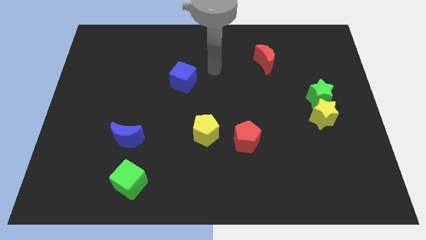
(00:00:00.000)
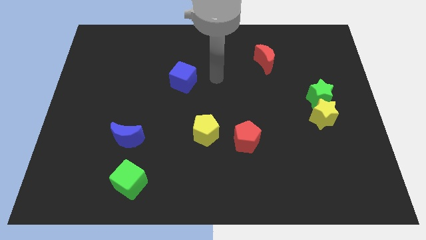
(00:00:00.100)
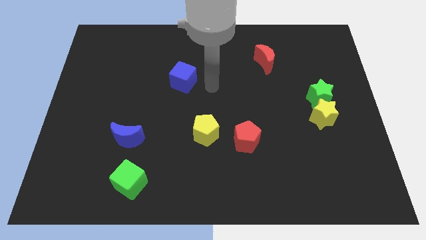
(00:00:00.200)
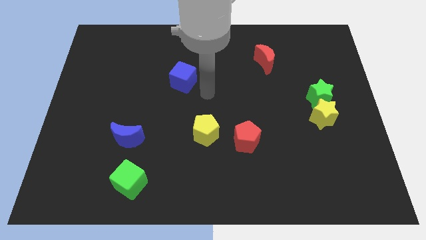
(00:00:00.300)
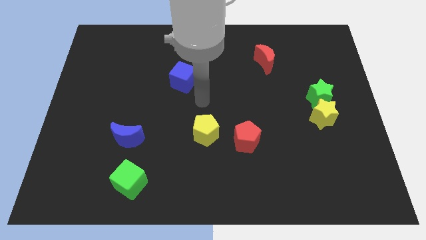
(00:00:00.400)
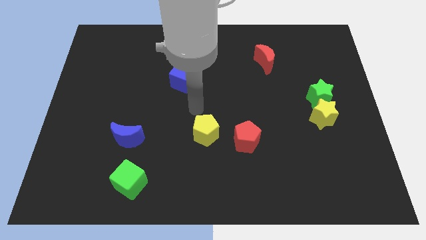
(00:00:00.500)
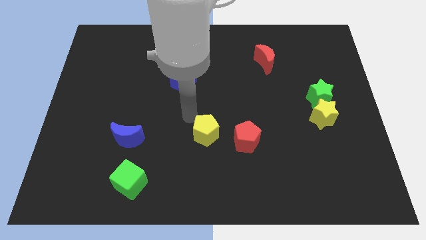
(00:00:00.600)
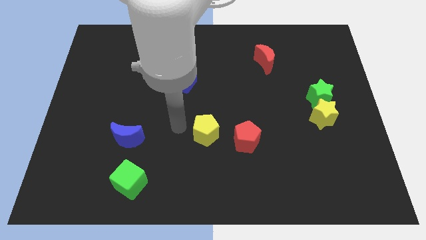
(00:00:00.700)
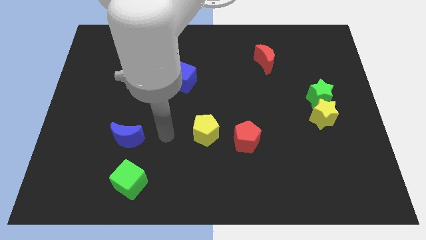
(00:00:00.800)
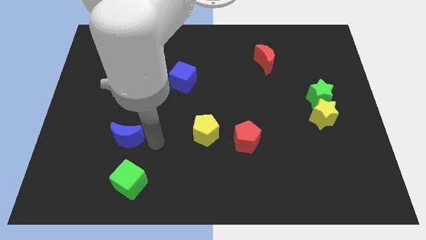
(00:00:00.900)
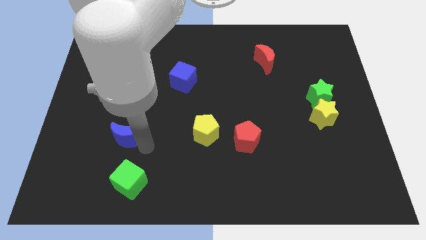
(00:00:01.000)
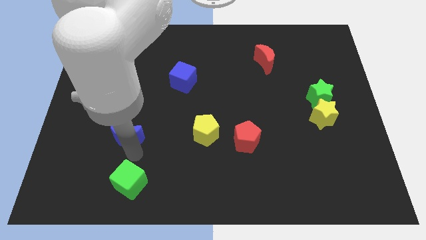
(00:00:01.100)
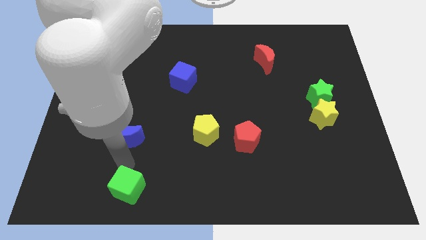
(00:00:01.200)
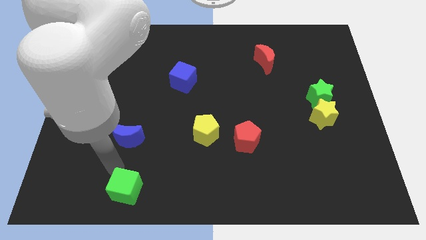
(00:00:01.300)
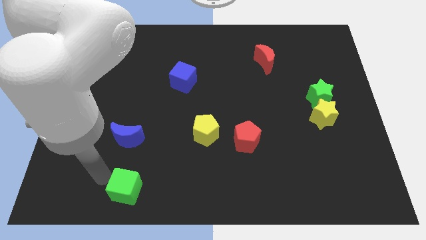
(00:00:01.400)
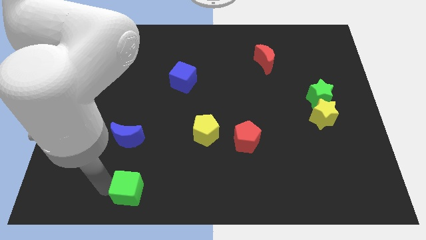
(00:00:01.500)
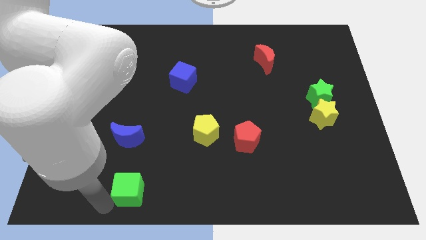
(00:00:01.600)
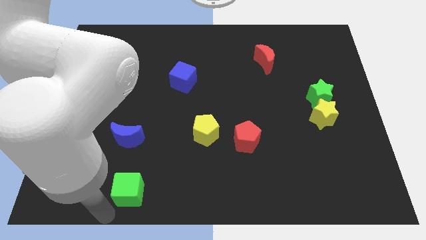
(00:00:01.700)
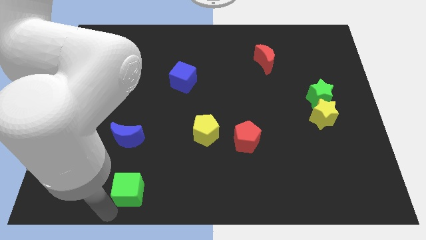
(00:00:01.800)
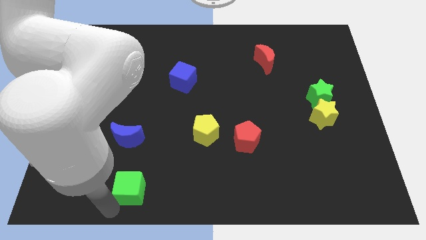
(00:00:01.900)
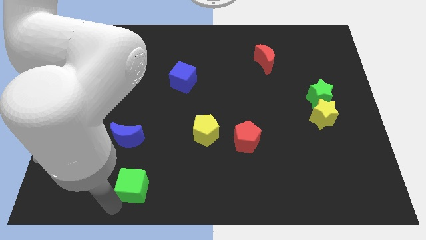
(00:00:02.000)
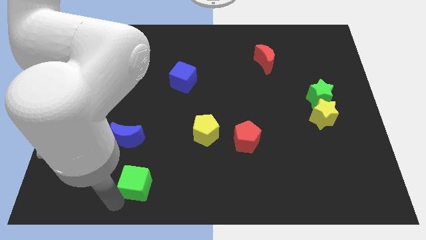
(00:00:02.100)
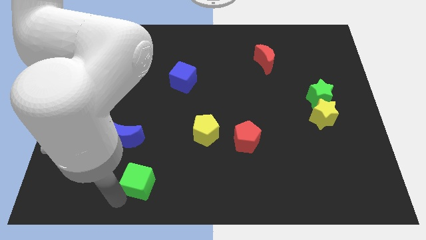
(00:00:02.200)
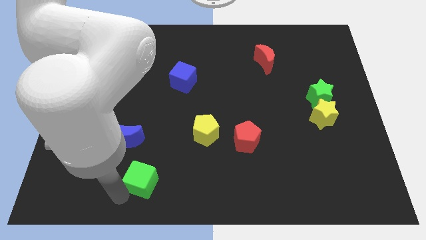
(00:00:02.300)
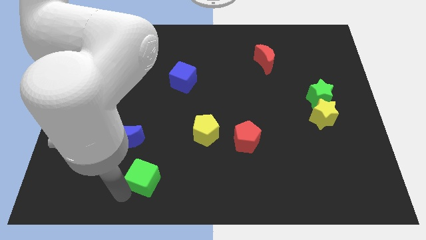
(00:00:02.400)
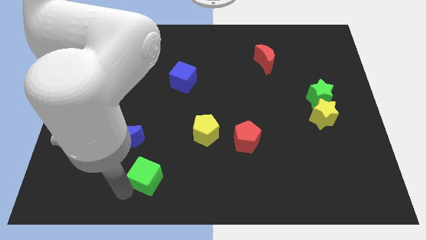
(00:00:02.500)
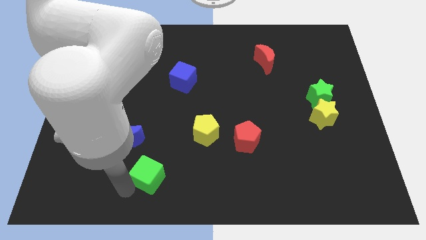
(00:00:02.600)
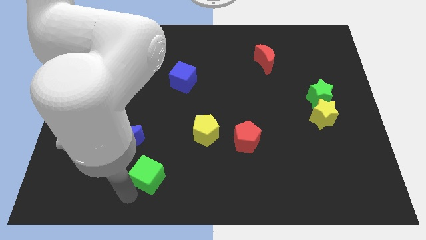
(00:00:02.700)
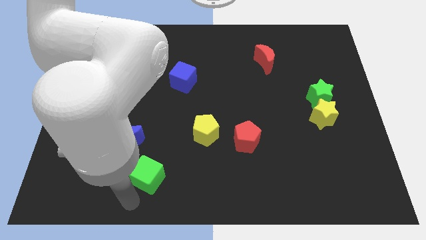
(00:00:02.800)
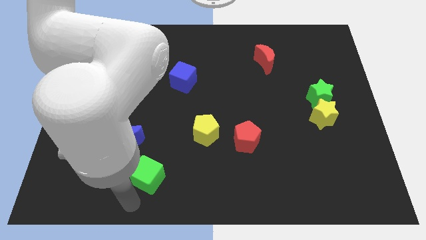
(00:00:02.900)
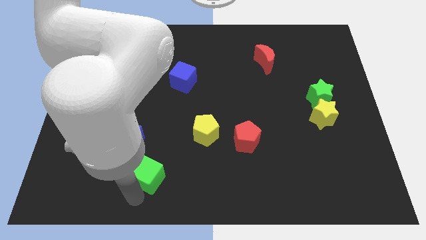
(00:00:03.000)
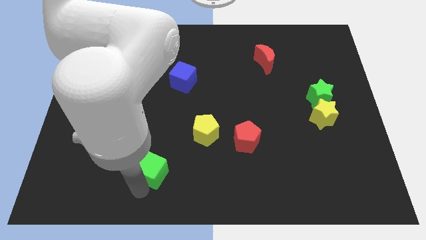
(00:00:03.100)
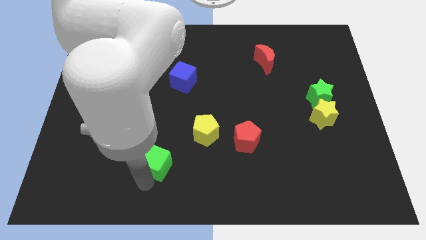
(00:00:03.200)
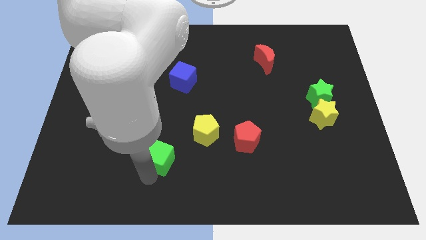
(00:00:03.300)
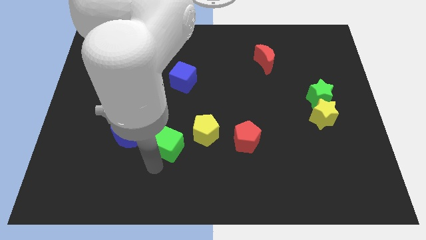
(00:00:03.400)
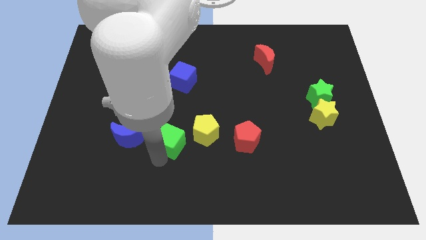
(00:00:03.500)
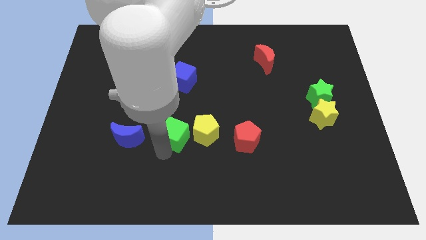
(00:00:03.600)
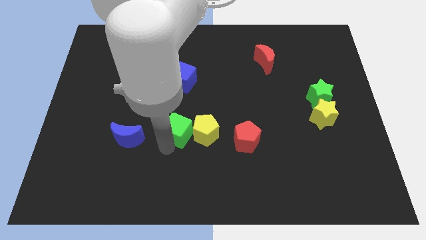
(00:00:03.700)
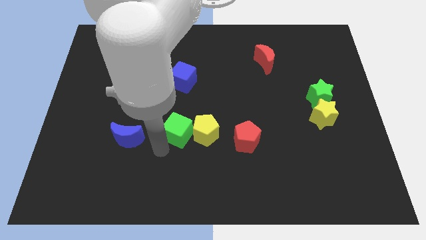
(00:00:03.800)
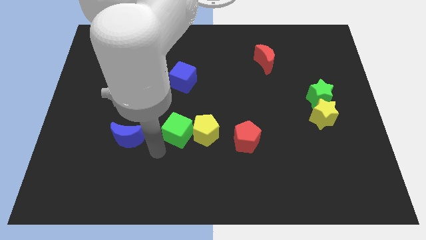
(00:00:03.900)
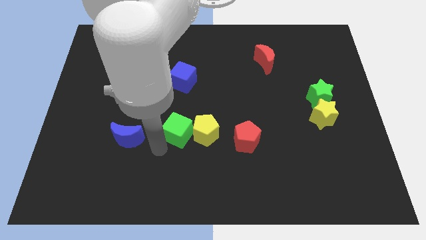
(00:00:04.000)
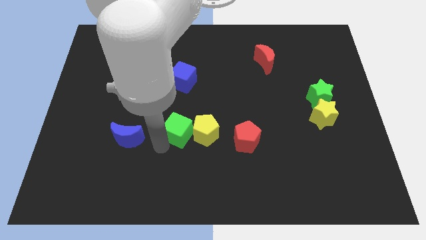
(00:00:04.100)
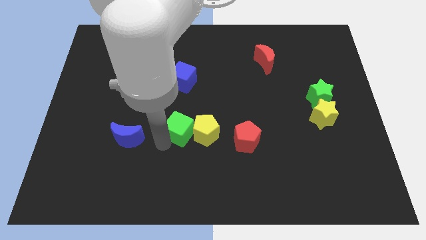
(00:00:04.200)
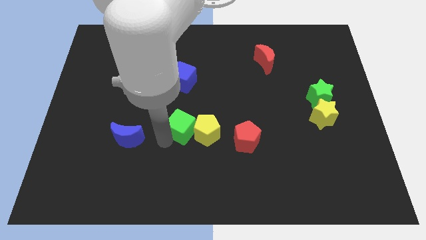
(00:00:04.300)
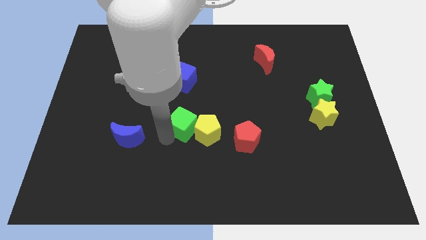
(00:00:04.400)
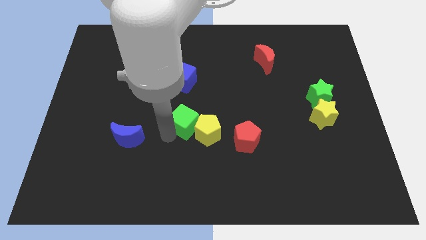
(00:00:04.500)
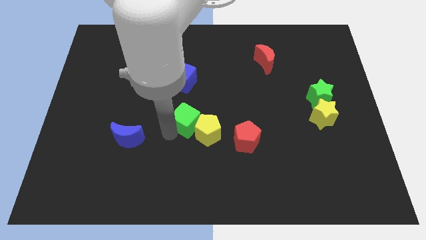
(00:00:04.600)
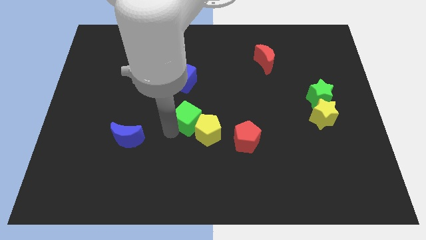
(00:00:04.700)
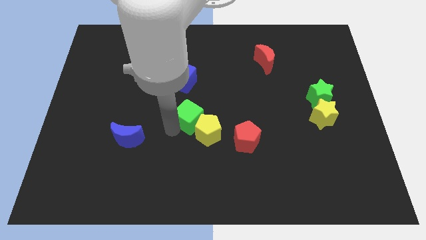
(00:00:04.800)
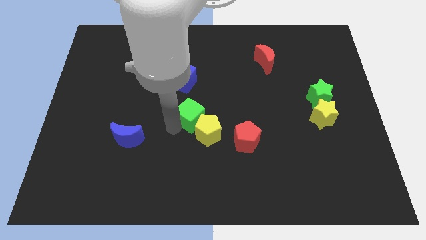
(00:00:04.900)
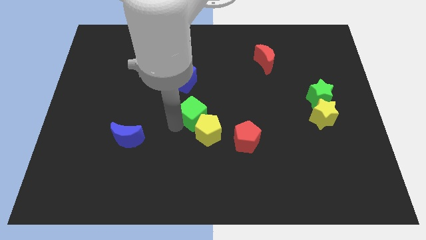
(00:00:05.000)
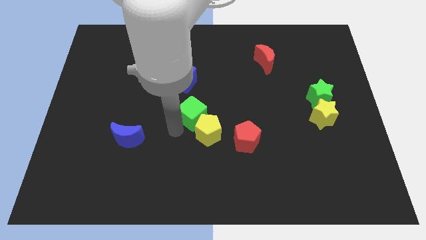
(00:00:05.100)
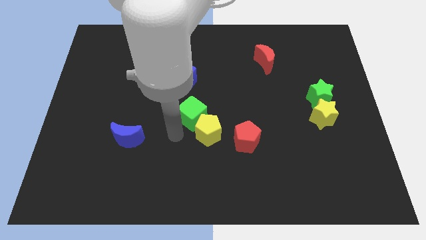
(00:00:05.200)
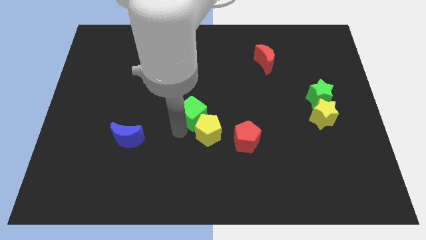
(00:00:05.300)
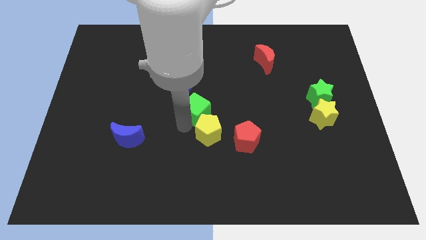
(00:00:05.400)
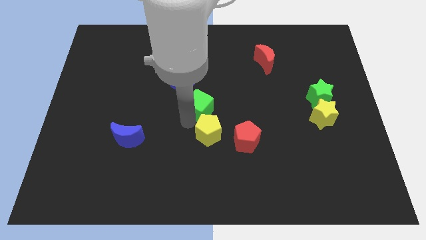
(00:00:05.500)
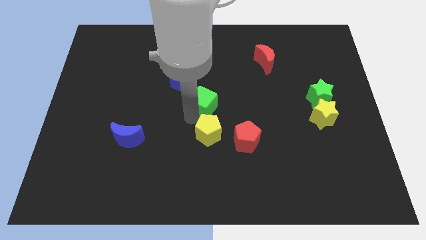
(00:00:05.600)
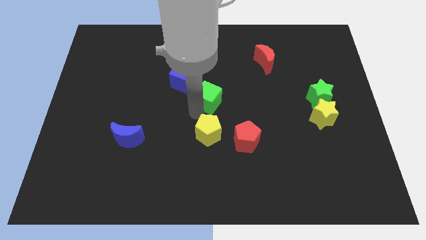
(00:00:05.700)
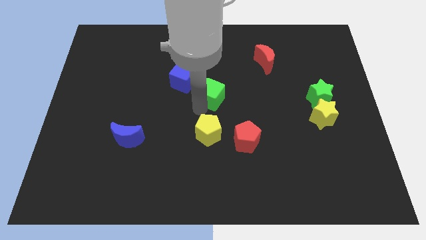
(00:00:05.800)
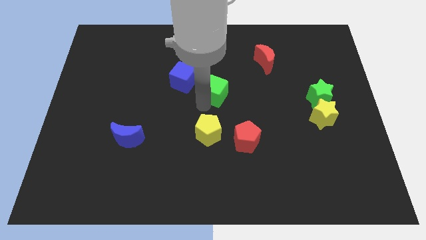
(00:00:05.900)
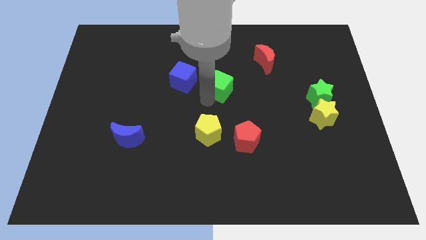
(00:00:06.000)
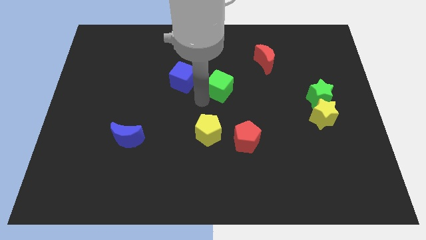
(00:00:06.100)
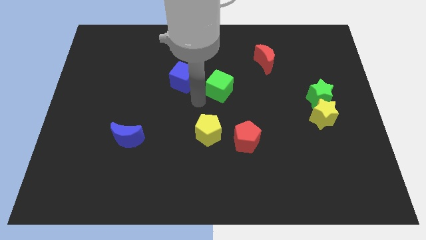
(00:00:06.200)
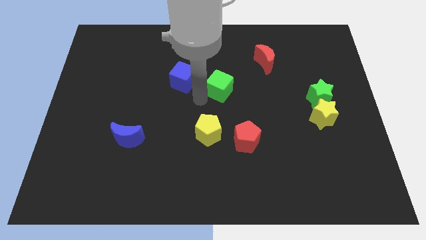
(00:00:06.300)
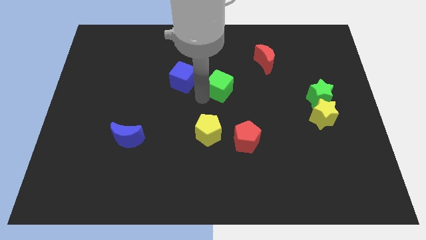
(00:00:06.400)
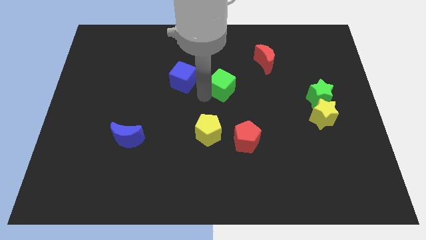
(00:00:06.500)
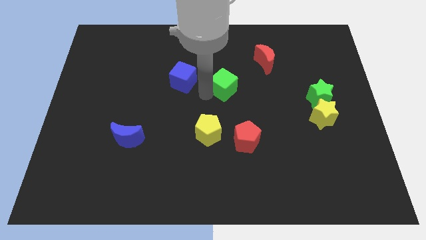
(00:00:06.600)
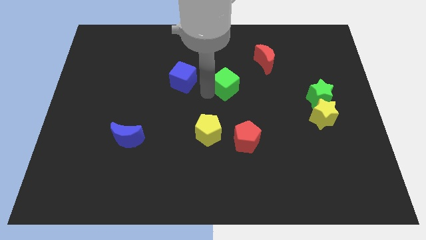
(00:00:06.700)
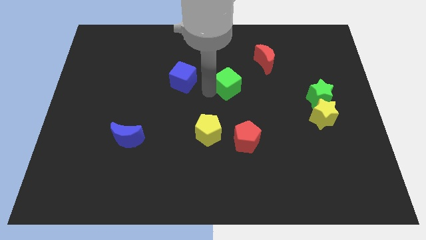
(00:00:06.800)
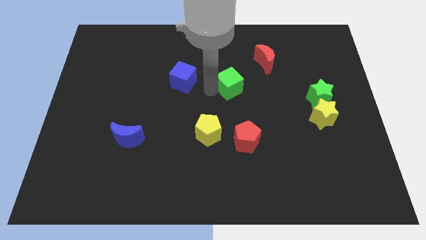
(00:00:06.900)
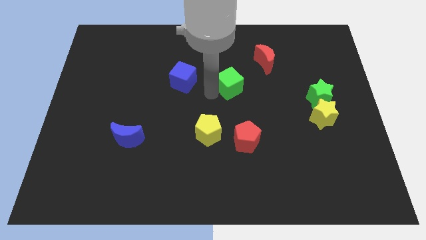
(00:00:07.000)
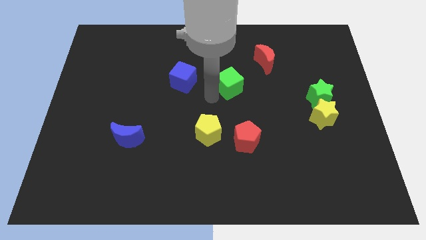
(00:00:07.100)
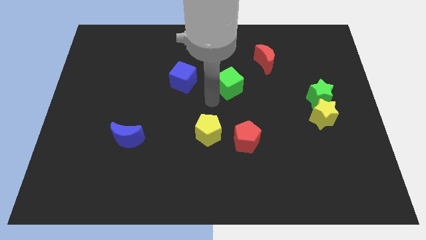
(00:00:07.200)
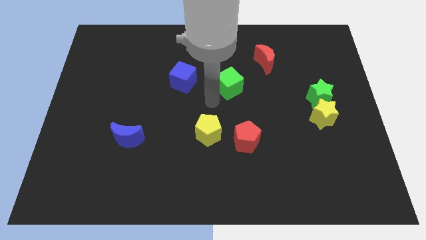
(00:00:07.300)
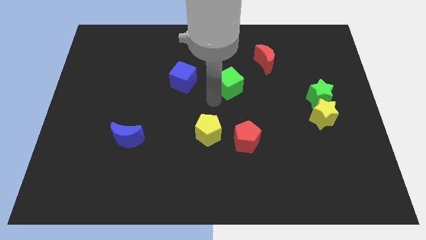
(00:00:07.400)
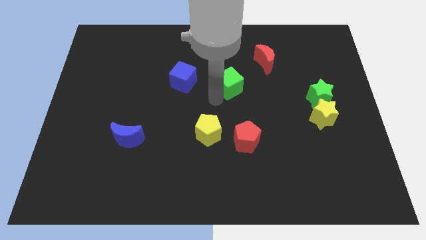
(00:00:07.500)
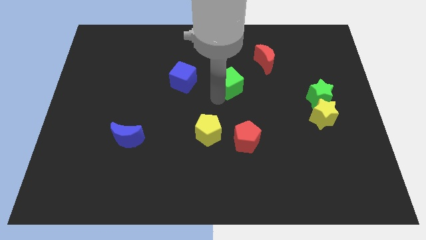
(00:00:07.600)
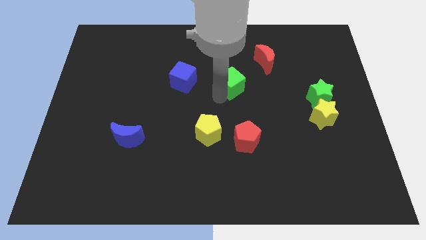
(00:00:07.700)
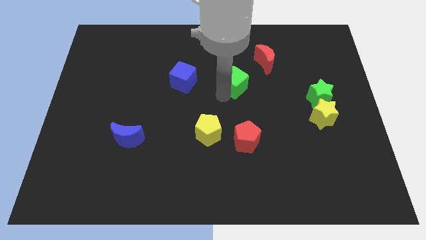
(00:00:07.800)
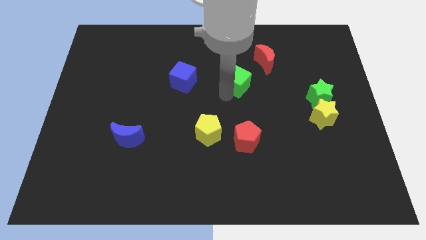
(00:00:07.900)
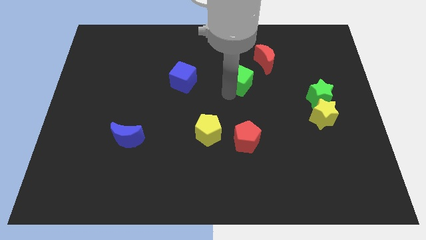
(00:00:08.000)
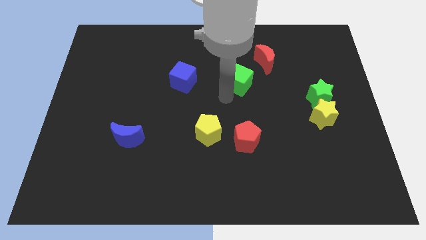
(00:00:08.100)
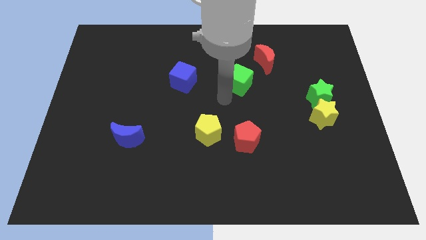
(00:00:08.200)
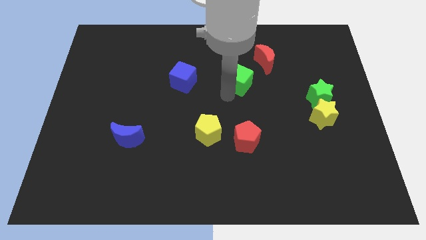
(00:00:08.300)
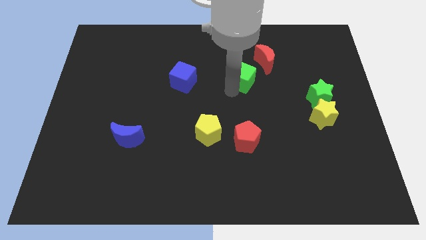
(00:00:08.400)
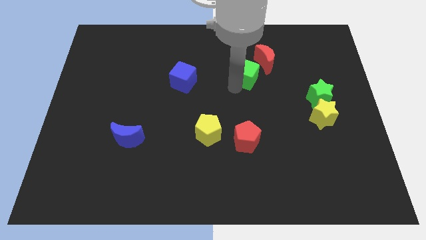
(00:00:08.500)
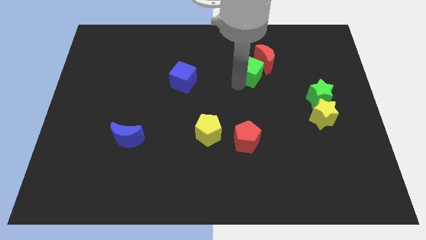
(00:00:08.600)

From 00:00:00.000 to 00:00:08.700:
push the green cube close to the red moon
